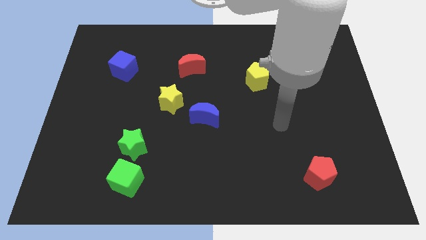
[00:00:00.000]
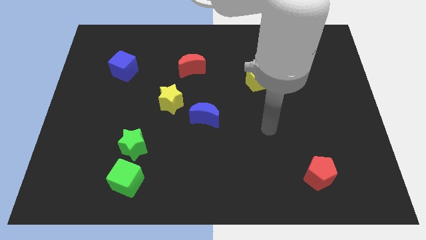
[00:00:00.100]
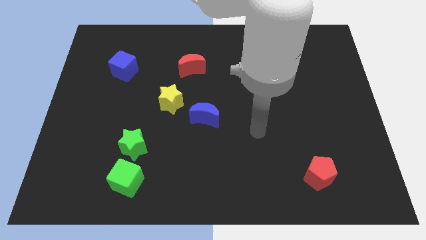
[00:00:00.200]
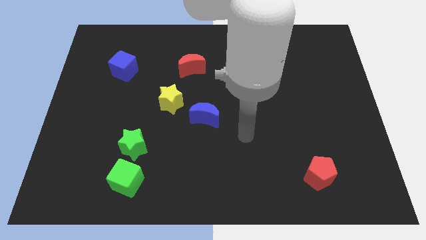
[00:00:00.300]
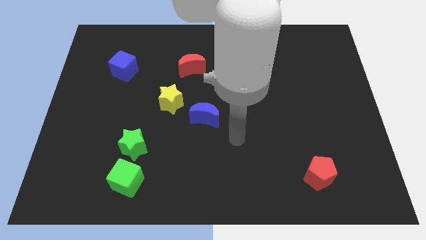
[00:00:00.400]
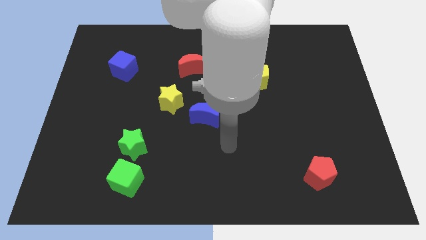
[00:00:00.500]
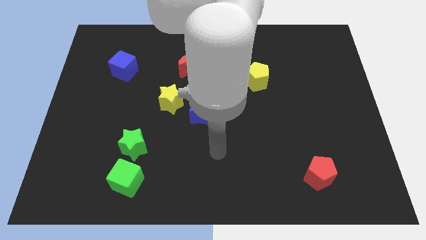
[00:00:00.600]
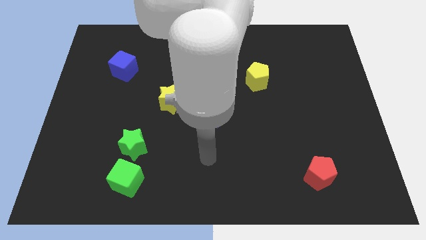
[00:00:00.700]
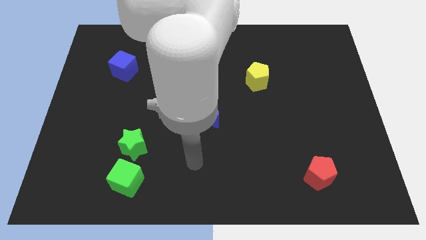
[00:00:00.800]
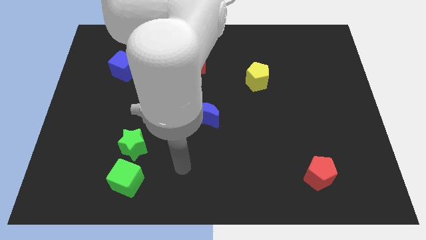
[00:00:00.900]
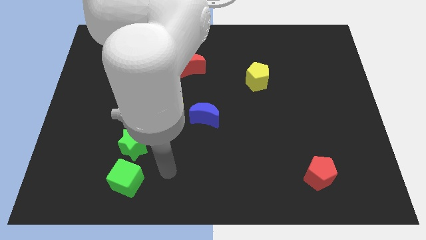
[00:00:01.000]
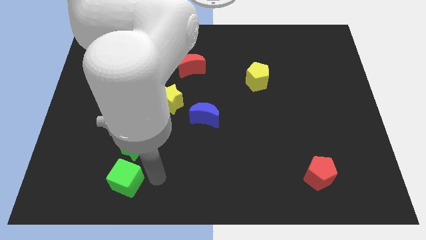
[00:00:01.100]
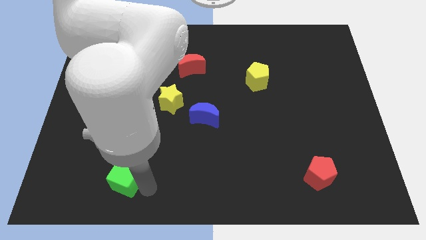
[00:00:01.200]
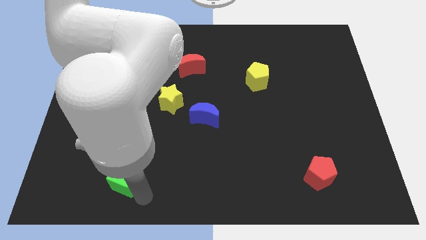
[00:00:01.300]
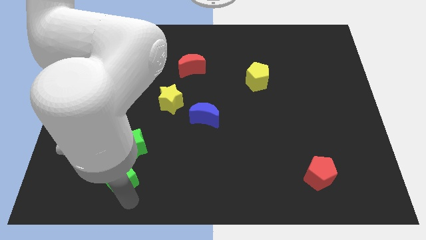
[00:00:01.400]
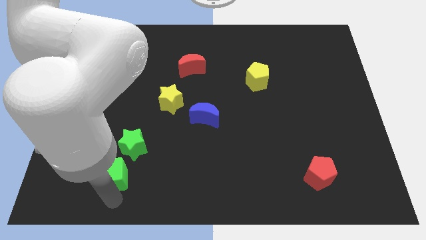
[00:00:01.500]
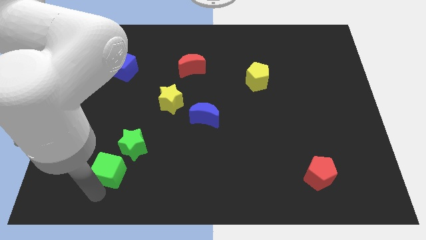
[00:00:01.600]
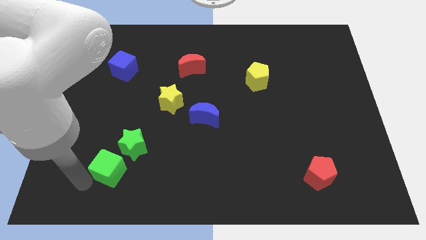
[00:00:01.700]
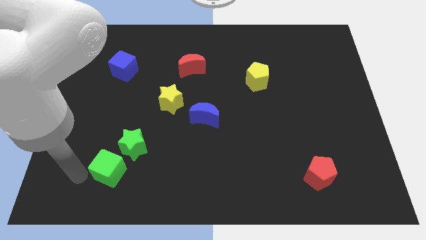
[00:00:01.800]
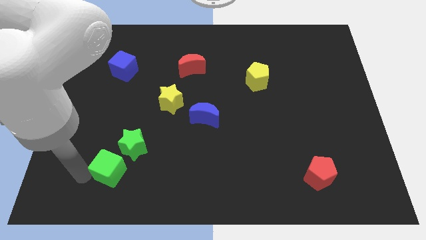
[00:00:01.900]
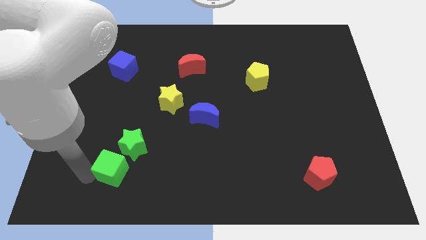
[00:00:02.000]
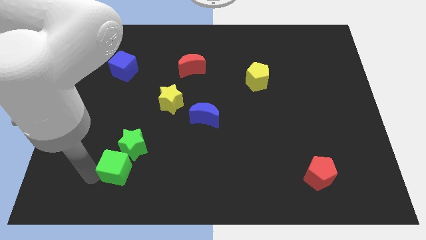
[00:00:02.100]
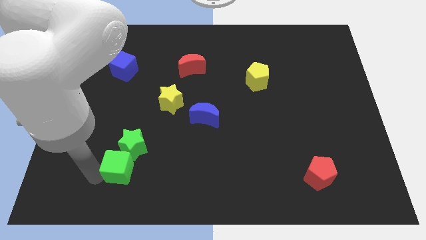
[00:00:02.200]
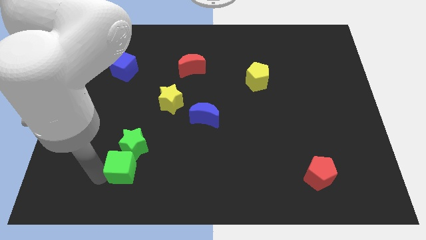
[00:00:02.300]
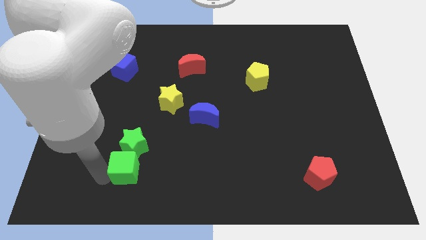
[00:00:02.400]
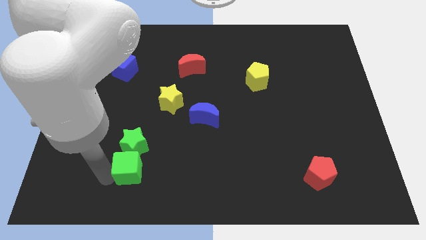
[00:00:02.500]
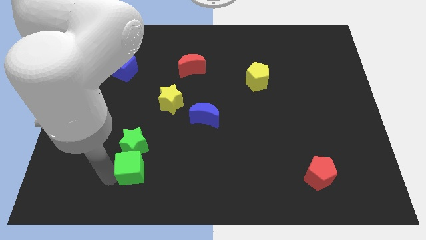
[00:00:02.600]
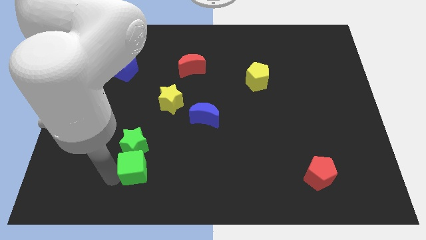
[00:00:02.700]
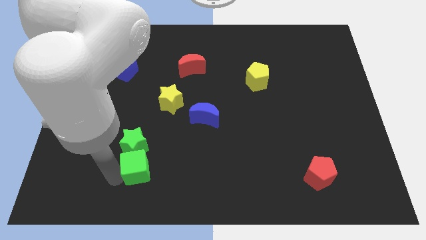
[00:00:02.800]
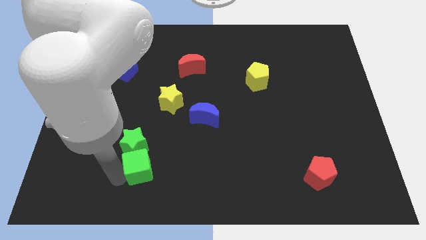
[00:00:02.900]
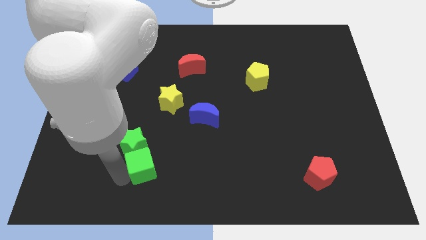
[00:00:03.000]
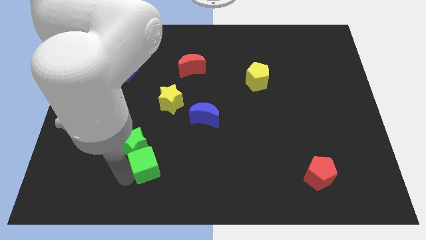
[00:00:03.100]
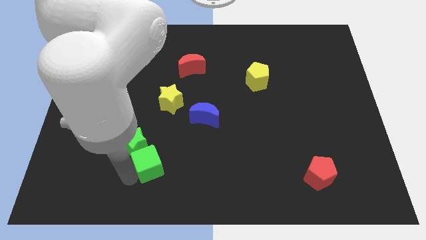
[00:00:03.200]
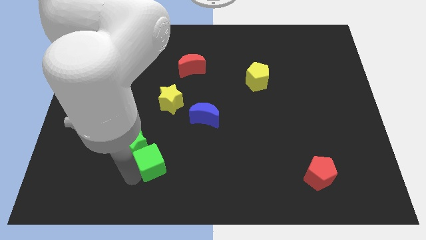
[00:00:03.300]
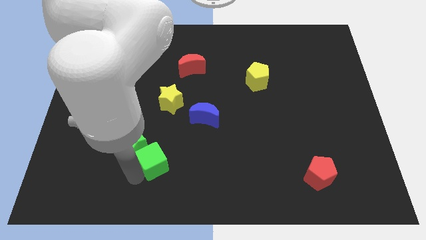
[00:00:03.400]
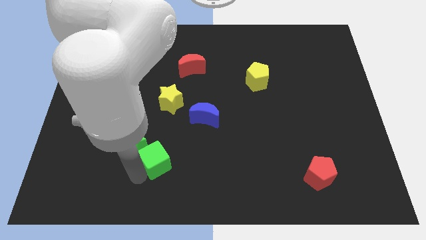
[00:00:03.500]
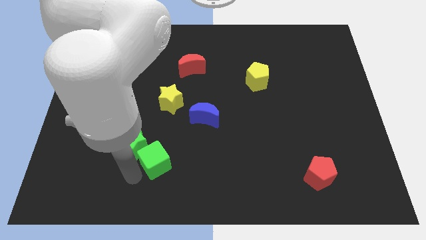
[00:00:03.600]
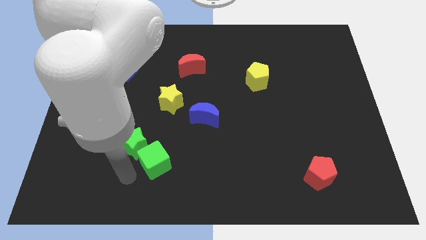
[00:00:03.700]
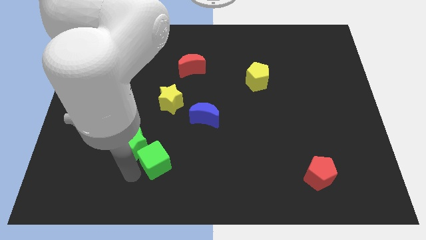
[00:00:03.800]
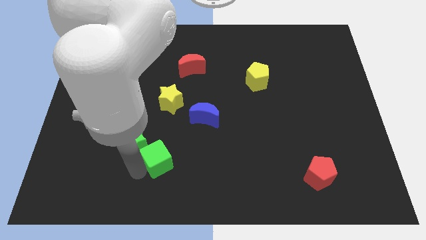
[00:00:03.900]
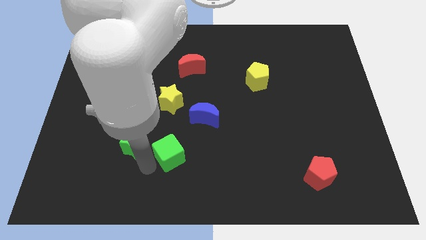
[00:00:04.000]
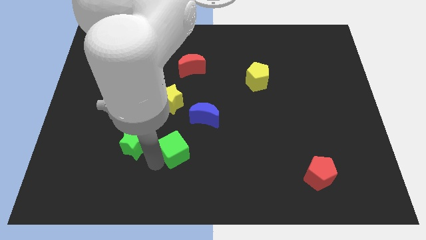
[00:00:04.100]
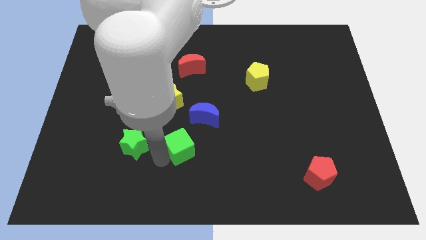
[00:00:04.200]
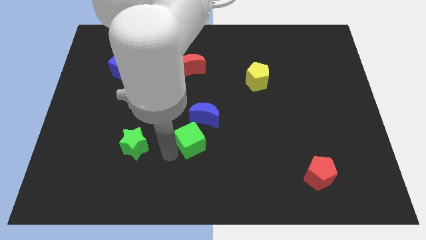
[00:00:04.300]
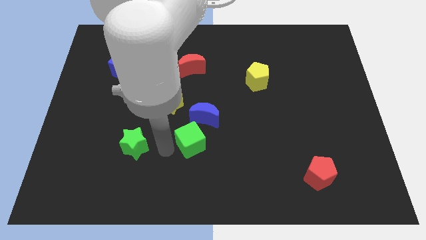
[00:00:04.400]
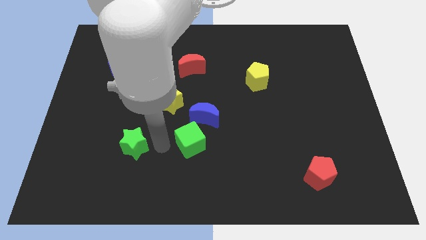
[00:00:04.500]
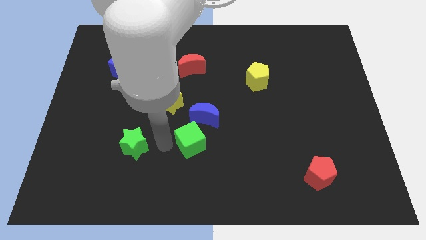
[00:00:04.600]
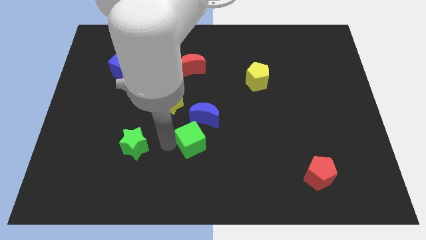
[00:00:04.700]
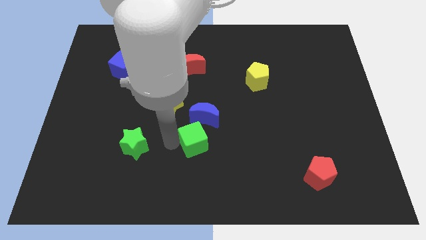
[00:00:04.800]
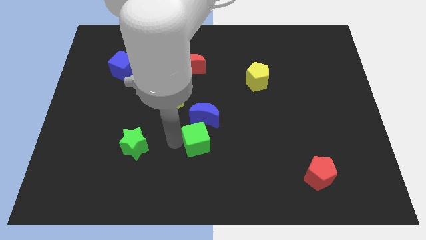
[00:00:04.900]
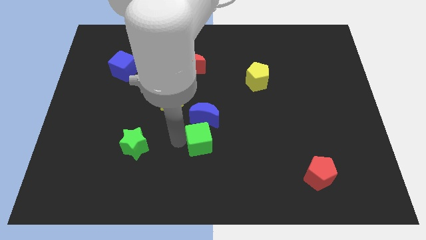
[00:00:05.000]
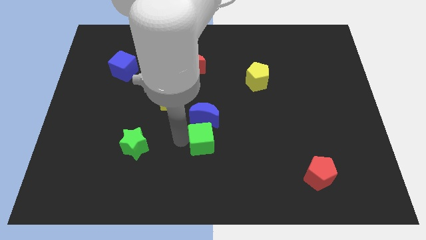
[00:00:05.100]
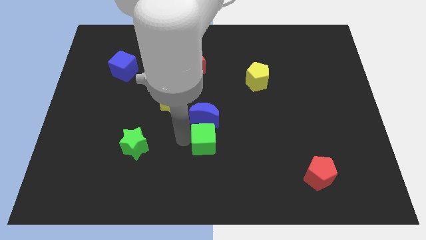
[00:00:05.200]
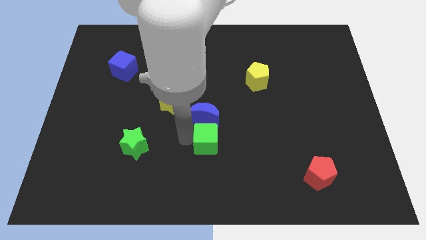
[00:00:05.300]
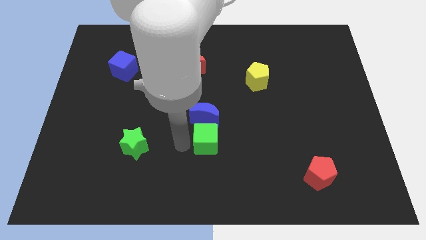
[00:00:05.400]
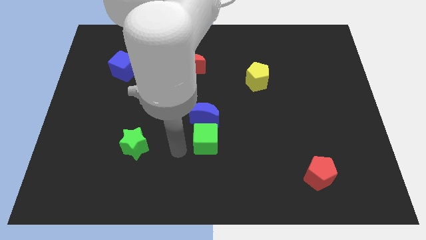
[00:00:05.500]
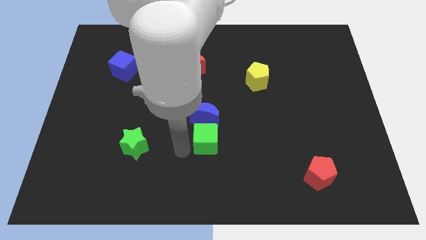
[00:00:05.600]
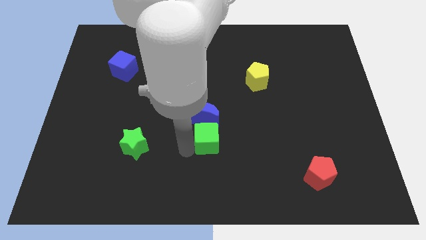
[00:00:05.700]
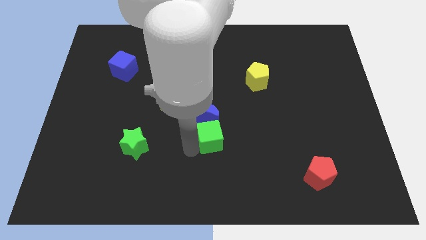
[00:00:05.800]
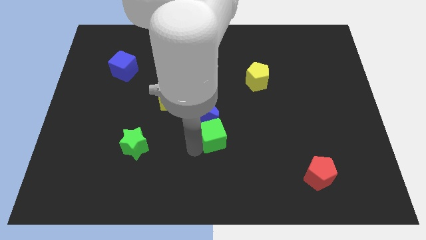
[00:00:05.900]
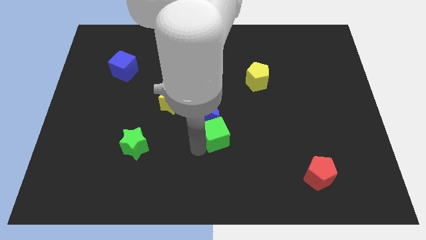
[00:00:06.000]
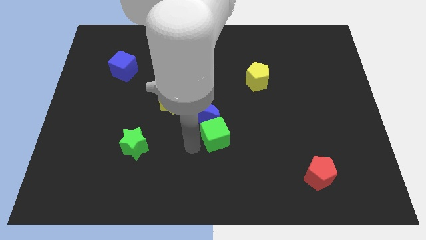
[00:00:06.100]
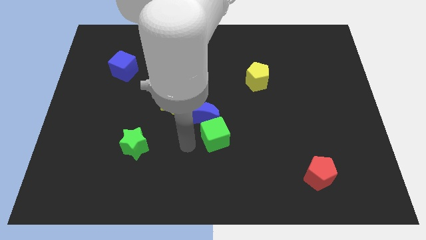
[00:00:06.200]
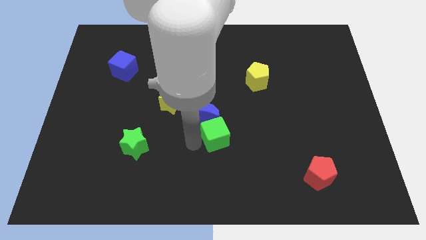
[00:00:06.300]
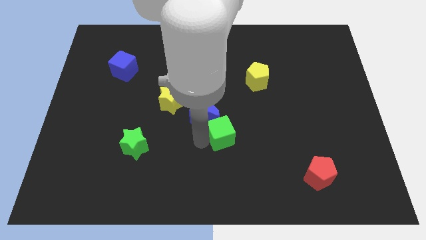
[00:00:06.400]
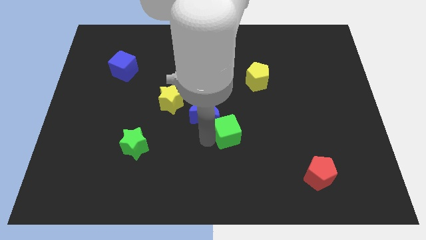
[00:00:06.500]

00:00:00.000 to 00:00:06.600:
move the green cube right of the blue moon

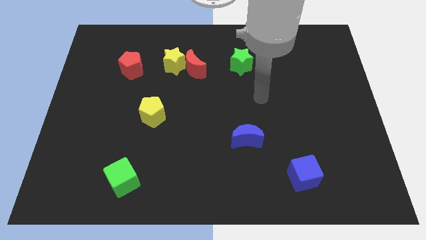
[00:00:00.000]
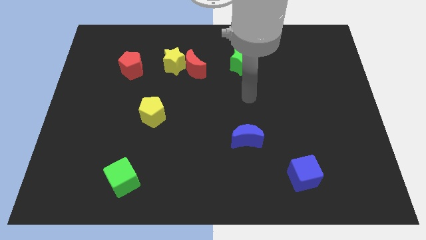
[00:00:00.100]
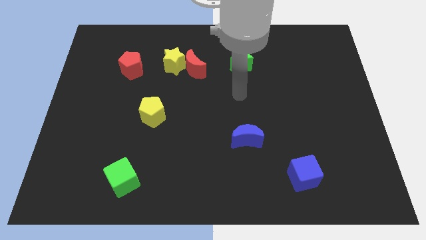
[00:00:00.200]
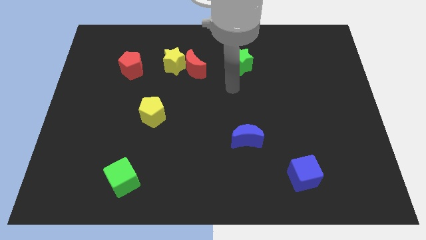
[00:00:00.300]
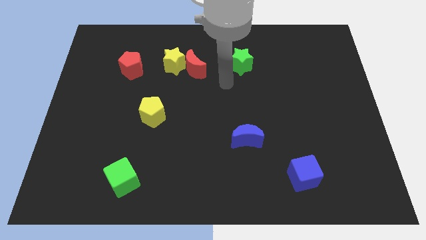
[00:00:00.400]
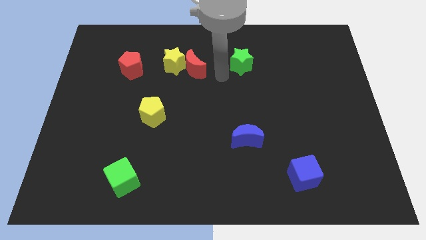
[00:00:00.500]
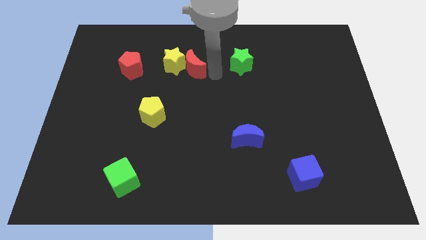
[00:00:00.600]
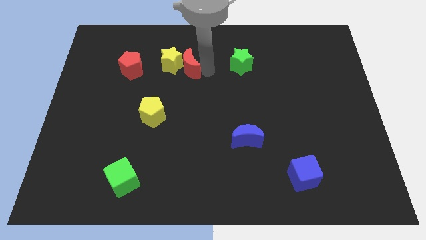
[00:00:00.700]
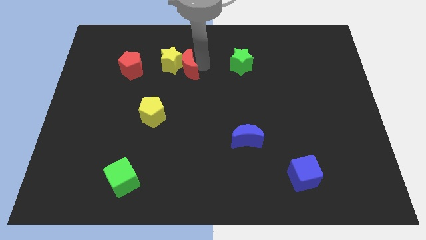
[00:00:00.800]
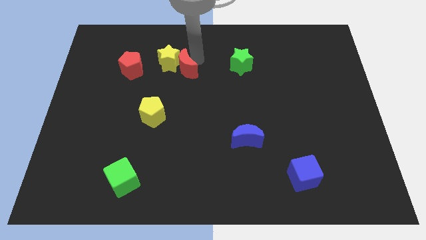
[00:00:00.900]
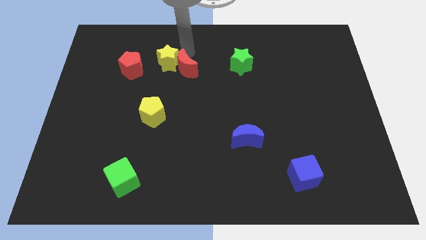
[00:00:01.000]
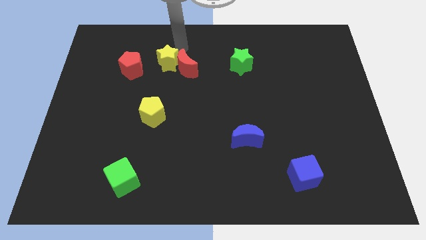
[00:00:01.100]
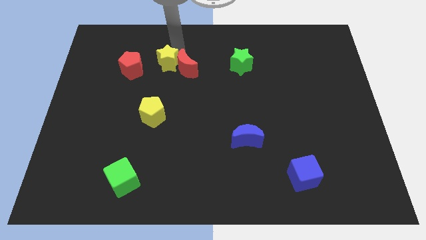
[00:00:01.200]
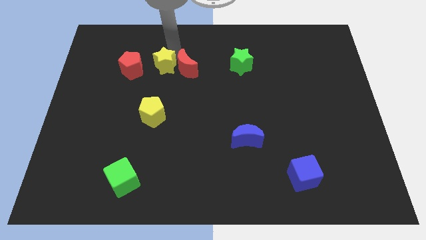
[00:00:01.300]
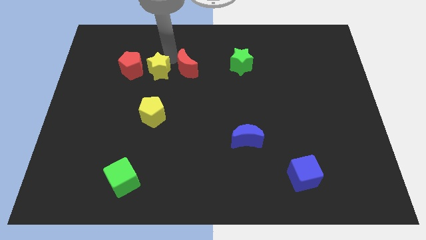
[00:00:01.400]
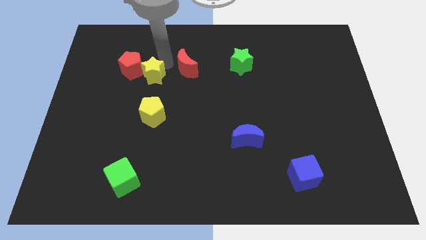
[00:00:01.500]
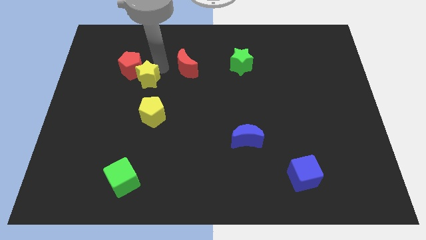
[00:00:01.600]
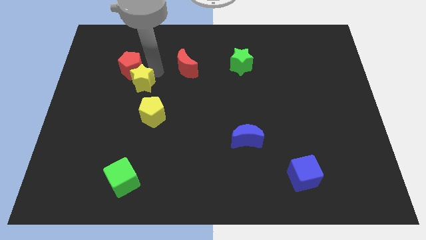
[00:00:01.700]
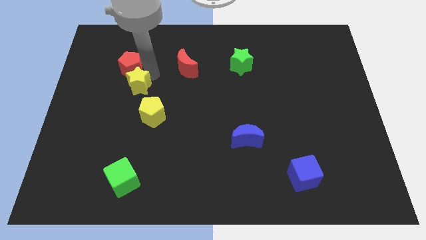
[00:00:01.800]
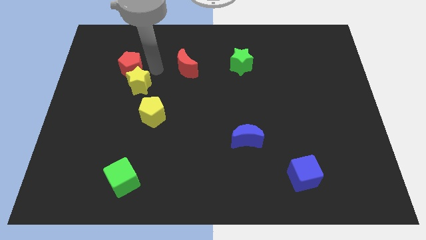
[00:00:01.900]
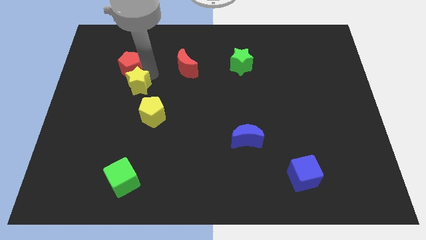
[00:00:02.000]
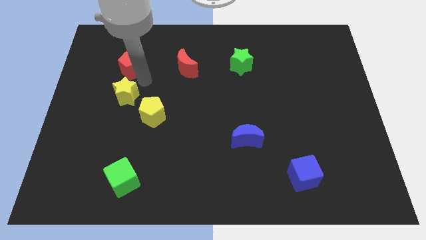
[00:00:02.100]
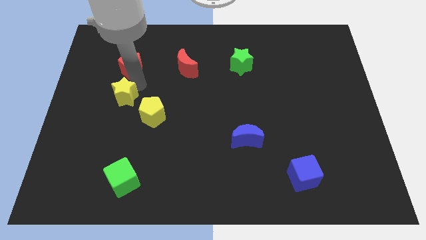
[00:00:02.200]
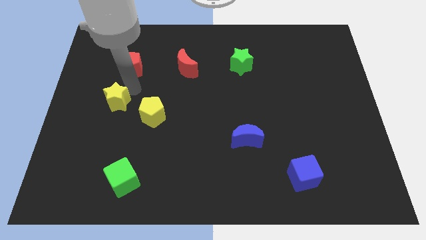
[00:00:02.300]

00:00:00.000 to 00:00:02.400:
put the yellow star left of the yellow pentagon
